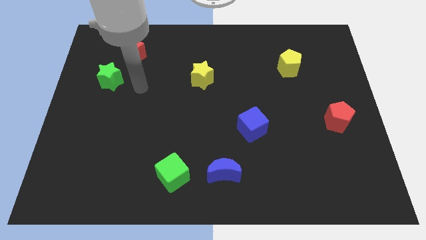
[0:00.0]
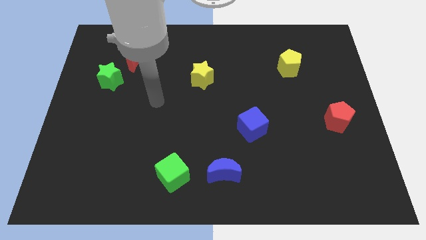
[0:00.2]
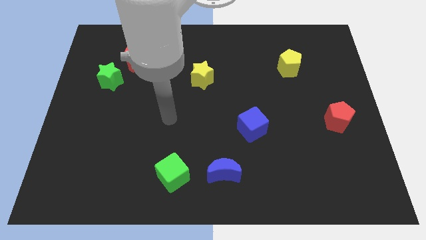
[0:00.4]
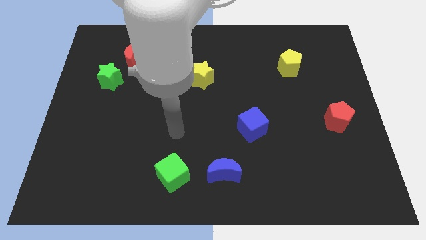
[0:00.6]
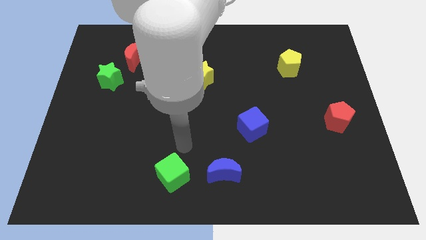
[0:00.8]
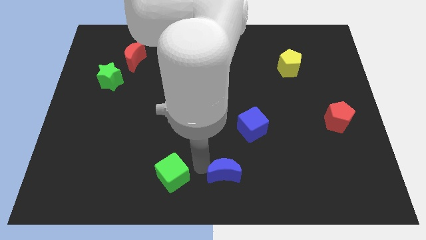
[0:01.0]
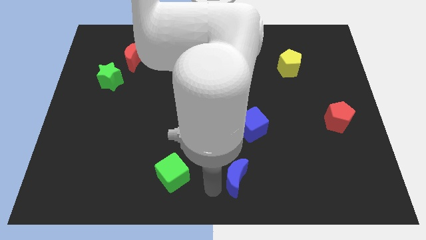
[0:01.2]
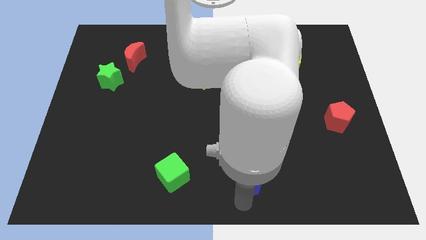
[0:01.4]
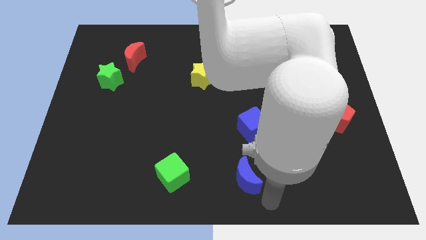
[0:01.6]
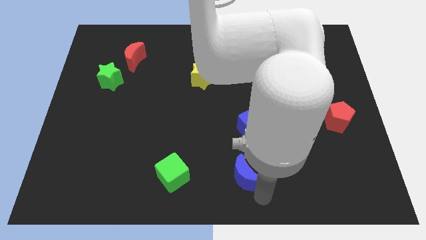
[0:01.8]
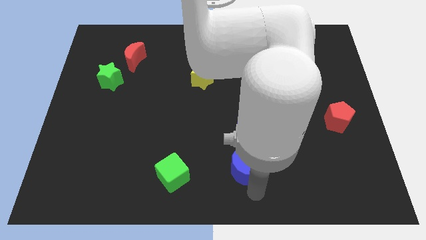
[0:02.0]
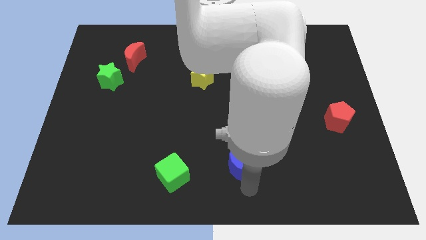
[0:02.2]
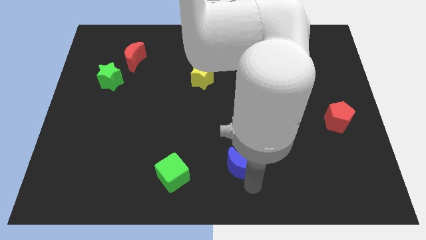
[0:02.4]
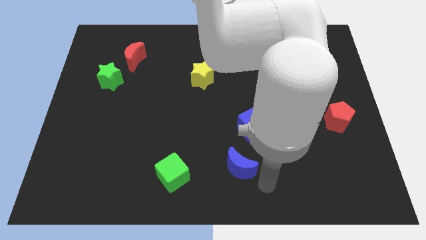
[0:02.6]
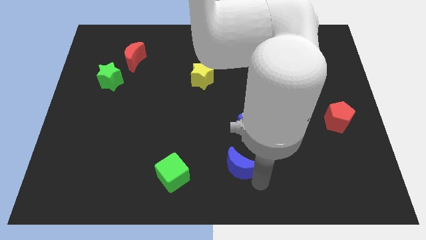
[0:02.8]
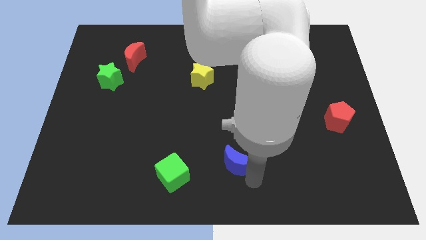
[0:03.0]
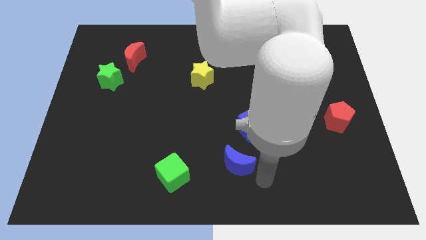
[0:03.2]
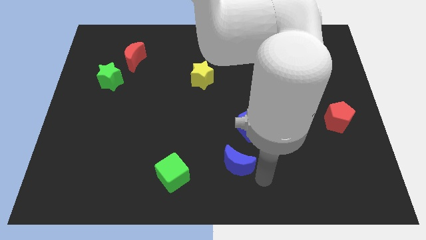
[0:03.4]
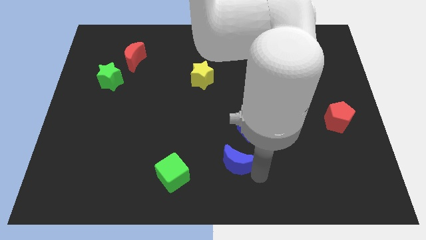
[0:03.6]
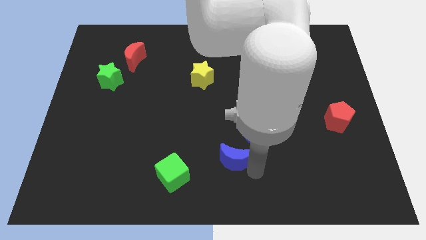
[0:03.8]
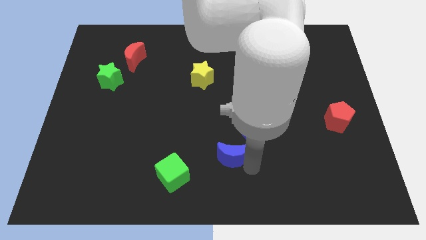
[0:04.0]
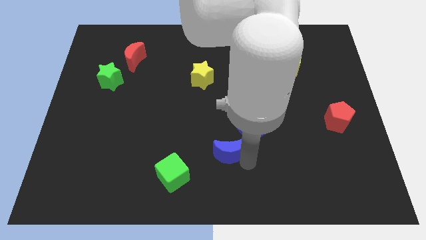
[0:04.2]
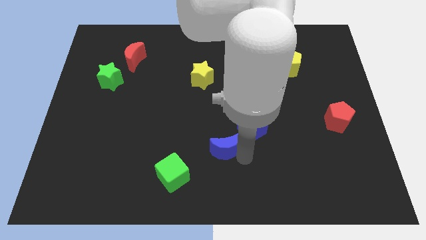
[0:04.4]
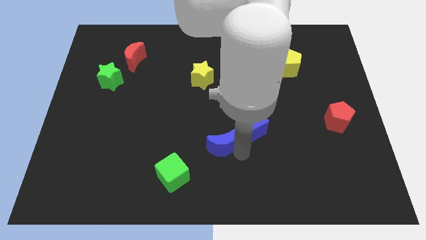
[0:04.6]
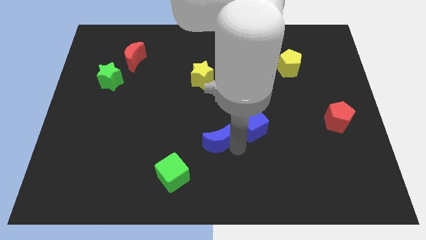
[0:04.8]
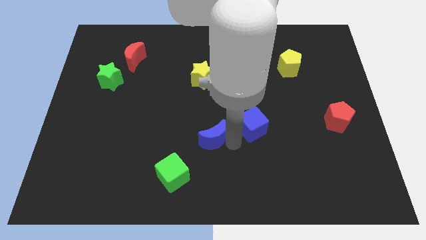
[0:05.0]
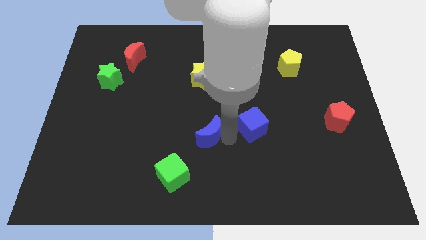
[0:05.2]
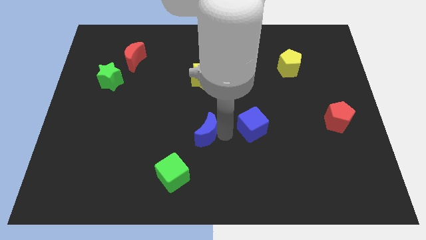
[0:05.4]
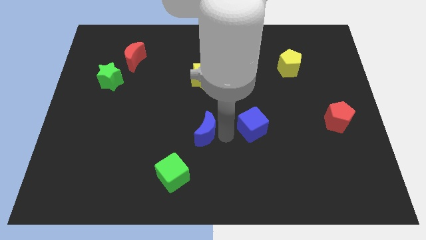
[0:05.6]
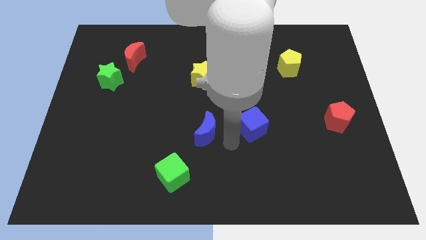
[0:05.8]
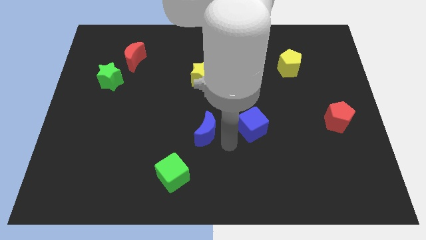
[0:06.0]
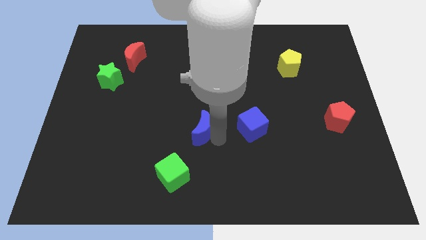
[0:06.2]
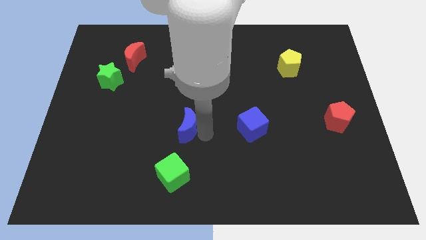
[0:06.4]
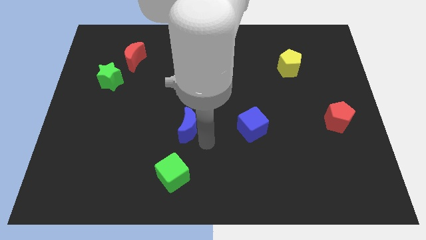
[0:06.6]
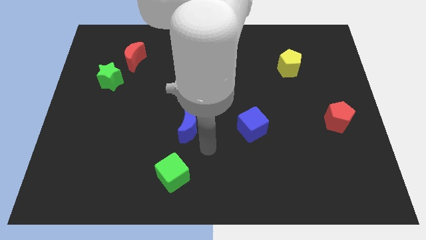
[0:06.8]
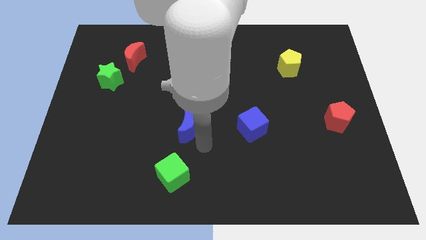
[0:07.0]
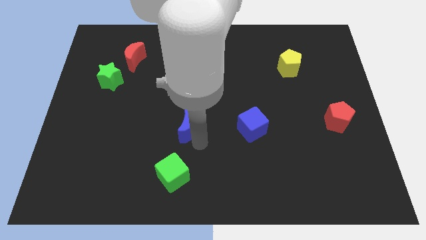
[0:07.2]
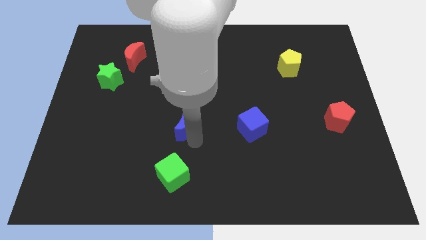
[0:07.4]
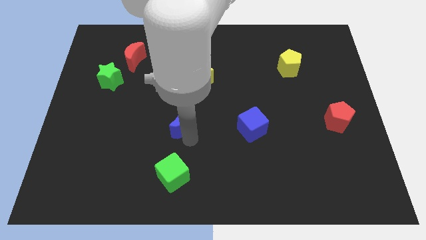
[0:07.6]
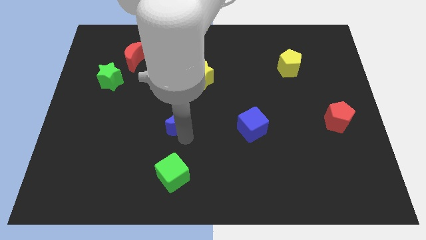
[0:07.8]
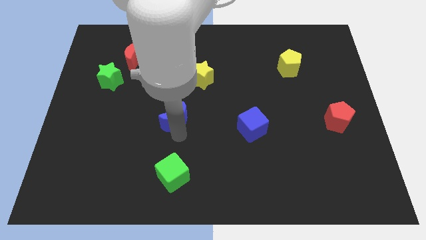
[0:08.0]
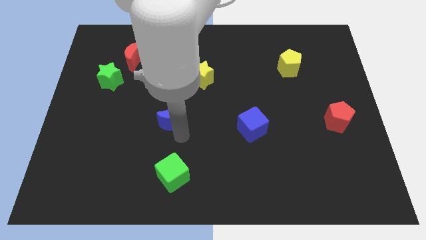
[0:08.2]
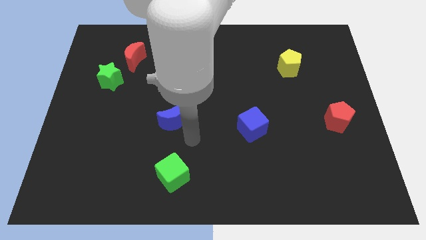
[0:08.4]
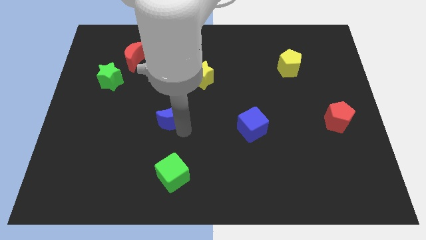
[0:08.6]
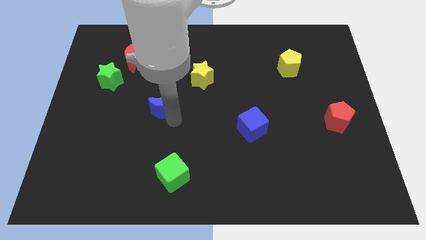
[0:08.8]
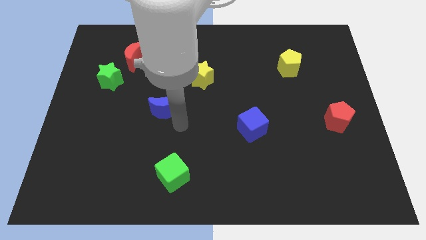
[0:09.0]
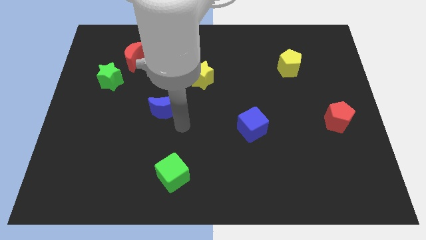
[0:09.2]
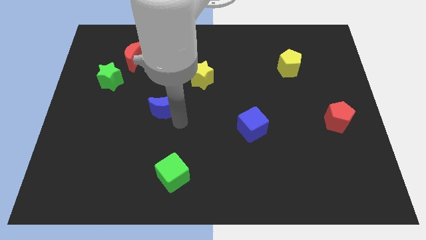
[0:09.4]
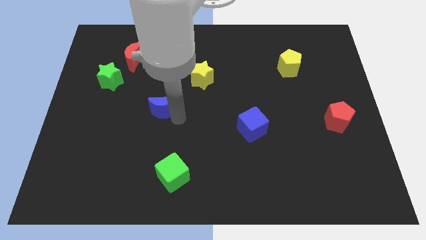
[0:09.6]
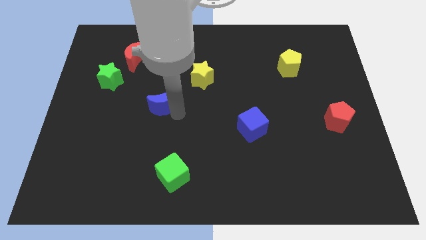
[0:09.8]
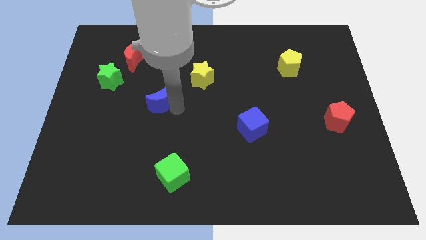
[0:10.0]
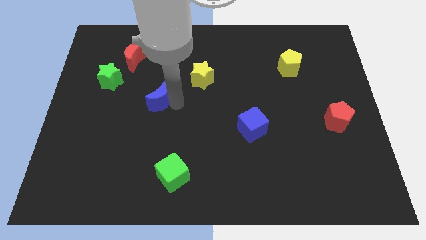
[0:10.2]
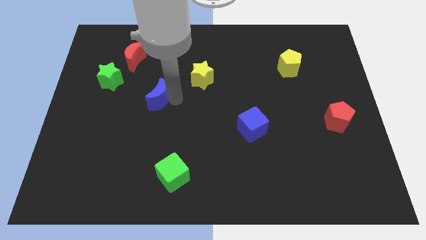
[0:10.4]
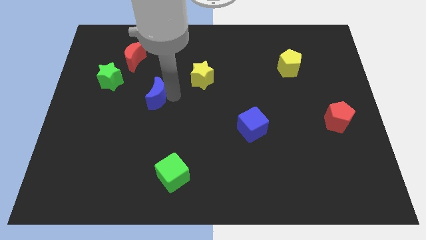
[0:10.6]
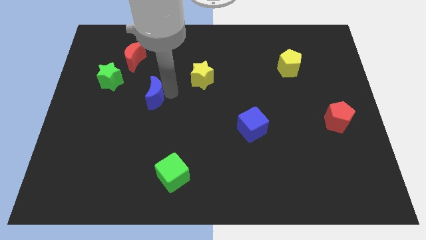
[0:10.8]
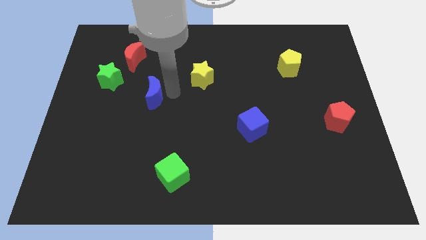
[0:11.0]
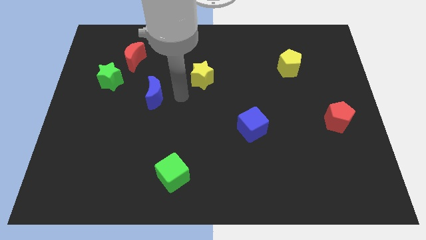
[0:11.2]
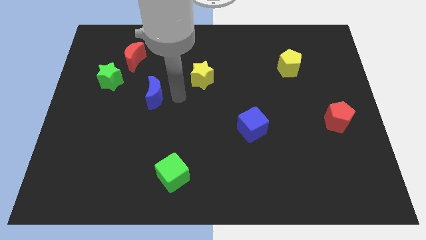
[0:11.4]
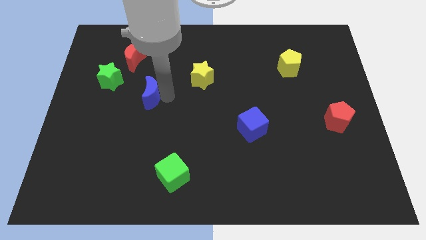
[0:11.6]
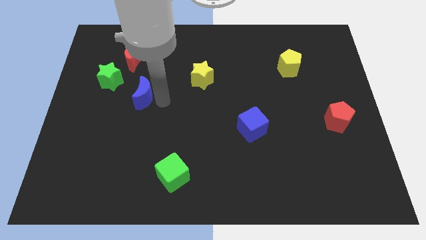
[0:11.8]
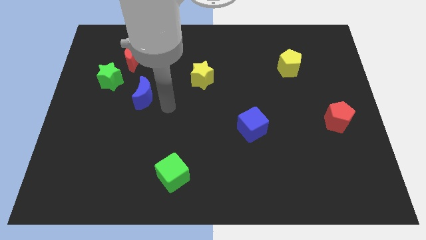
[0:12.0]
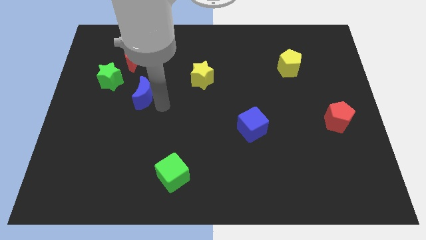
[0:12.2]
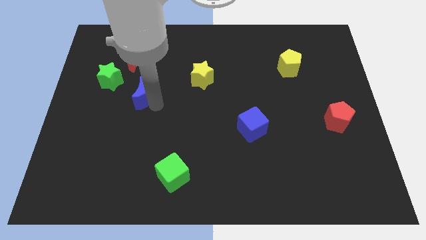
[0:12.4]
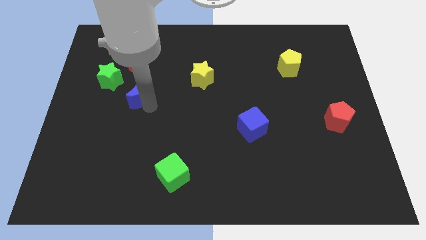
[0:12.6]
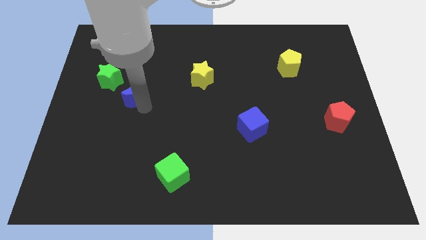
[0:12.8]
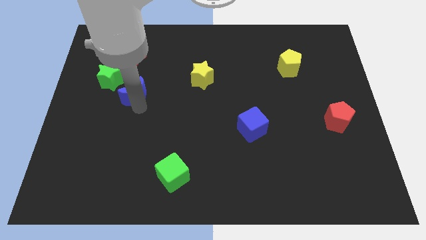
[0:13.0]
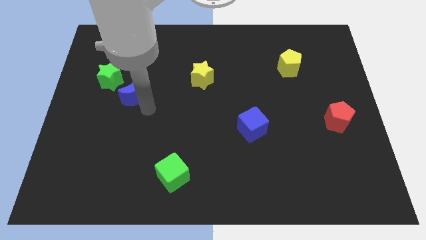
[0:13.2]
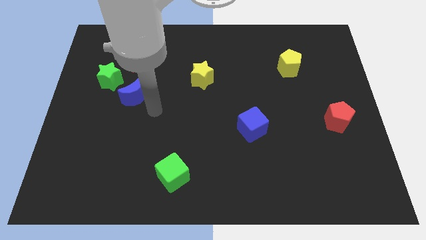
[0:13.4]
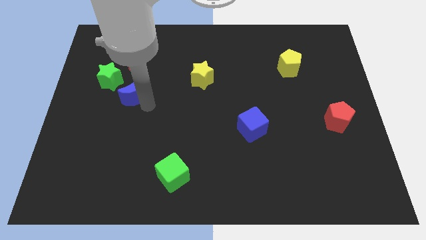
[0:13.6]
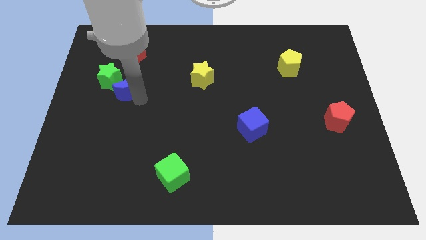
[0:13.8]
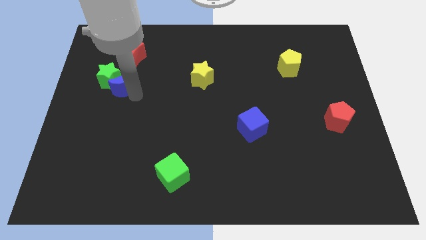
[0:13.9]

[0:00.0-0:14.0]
push the blue moon close to the green star

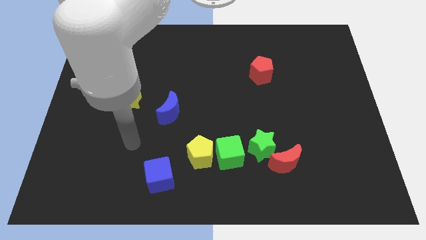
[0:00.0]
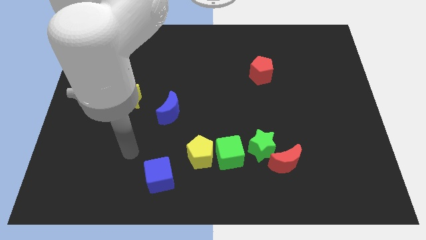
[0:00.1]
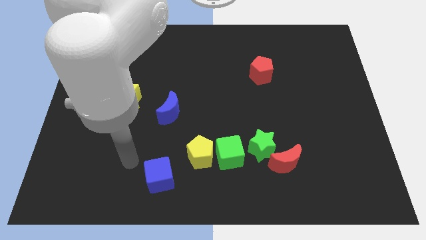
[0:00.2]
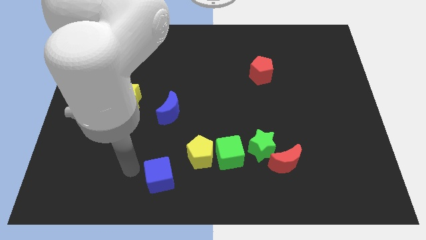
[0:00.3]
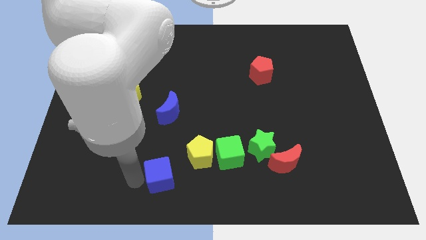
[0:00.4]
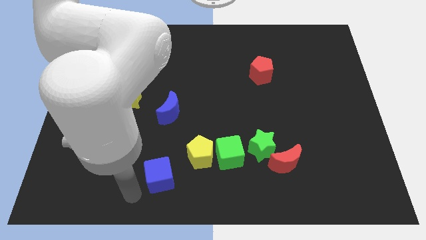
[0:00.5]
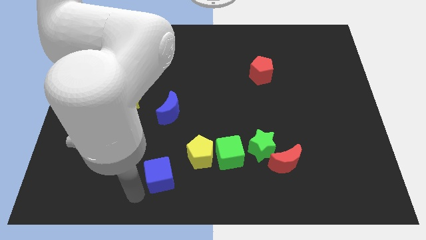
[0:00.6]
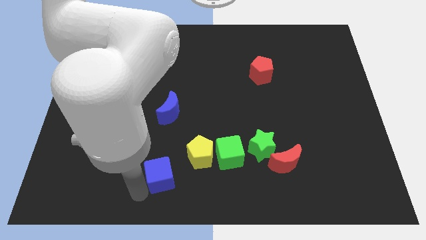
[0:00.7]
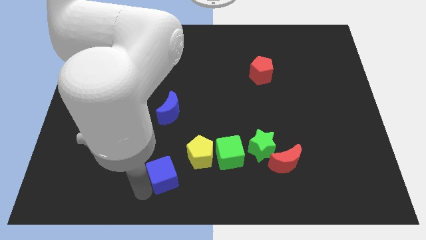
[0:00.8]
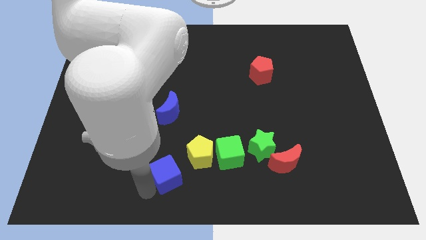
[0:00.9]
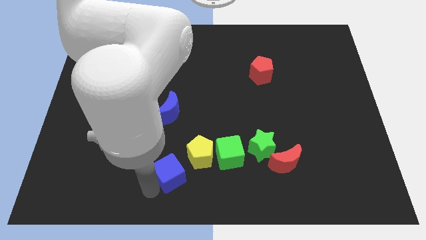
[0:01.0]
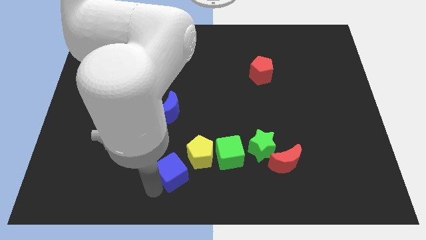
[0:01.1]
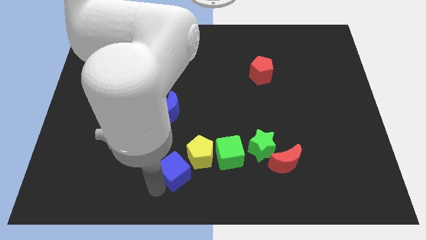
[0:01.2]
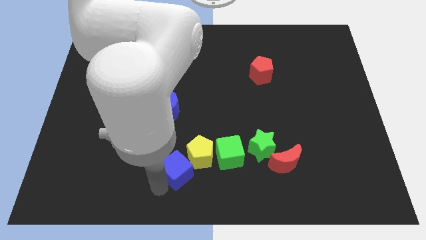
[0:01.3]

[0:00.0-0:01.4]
put the blue cube towards the yellow pentagon
